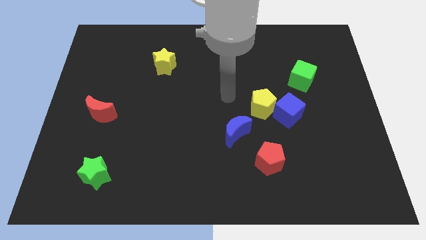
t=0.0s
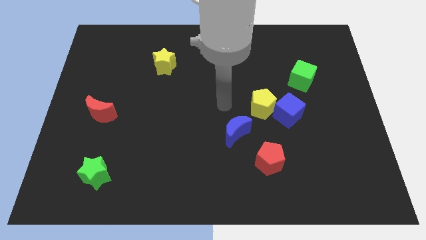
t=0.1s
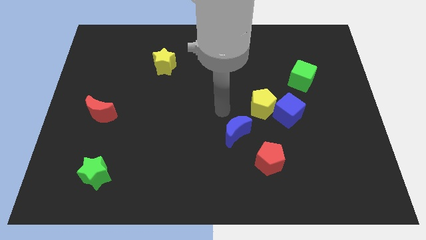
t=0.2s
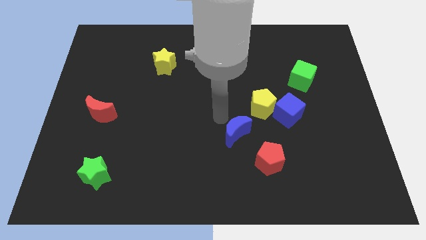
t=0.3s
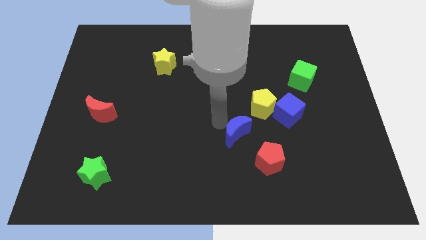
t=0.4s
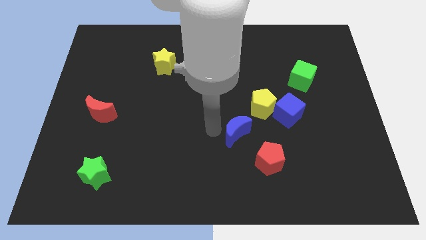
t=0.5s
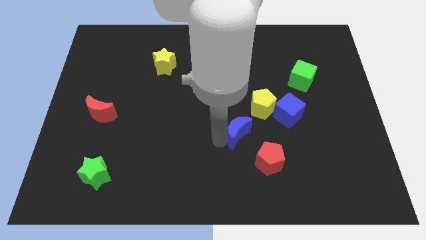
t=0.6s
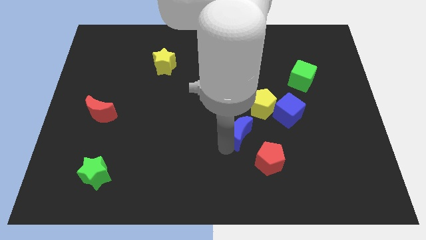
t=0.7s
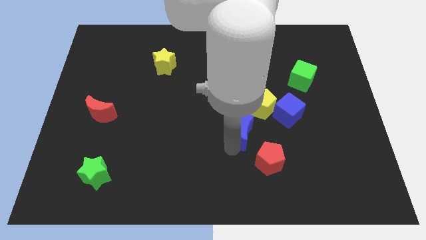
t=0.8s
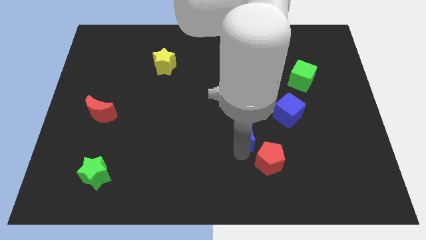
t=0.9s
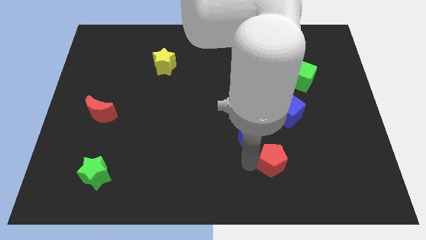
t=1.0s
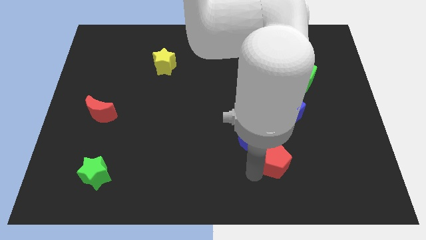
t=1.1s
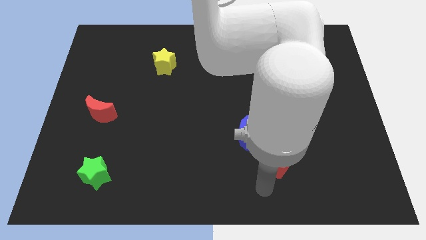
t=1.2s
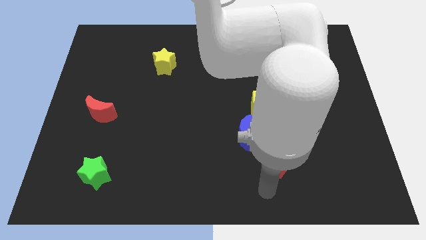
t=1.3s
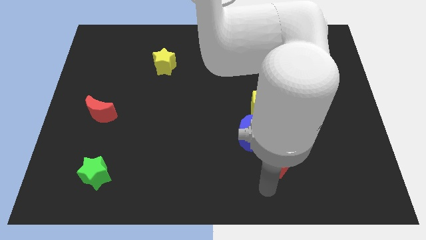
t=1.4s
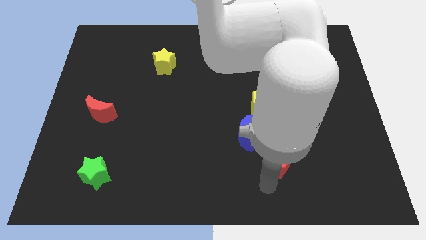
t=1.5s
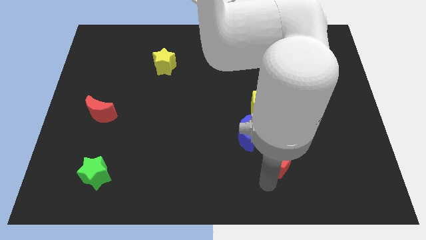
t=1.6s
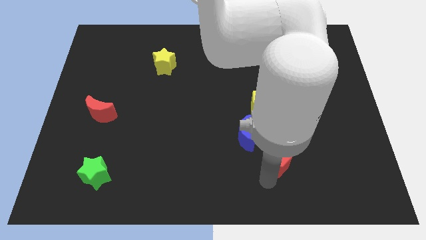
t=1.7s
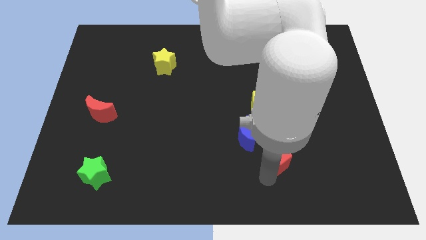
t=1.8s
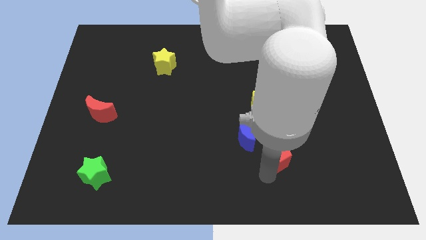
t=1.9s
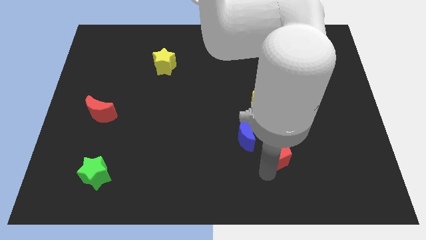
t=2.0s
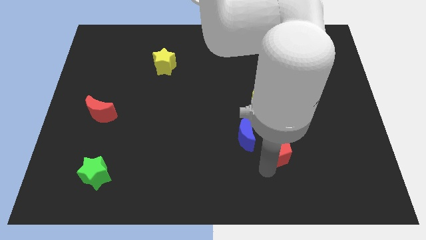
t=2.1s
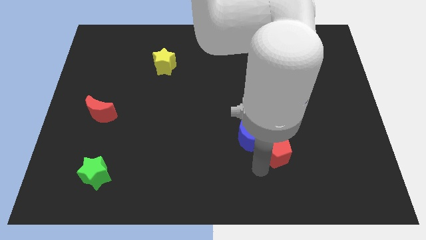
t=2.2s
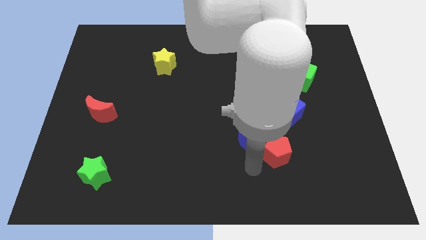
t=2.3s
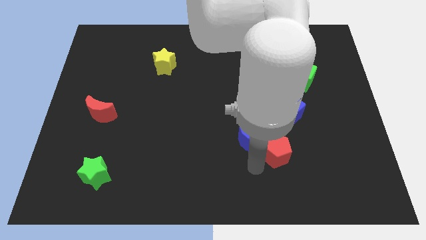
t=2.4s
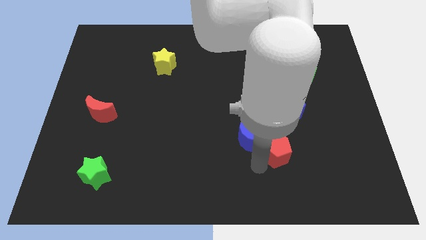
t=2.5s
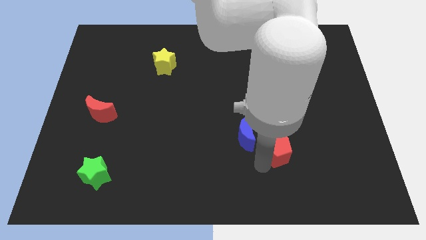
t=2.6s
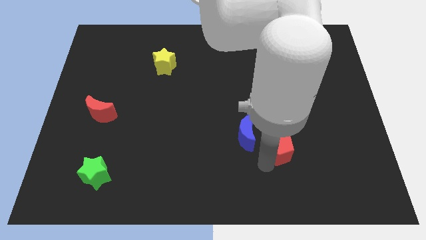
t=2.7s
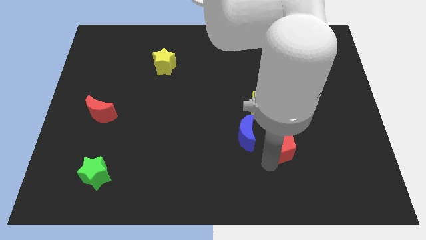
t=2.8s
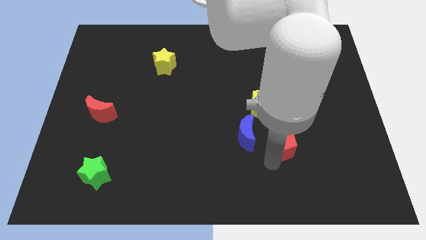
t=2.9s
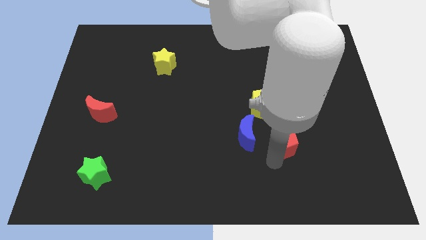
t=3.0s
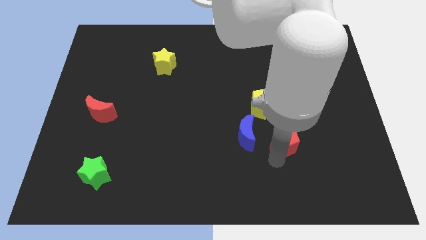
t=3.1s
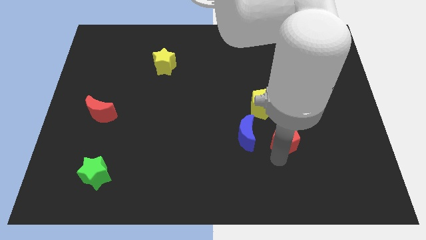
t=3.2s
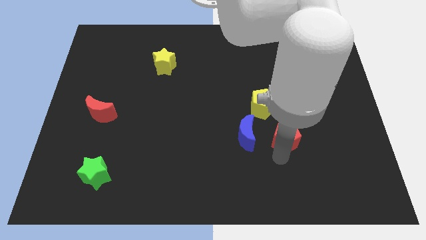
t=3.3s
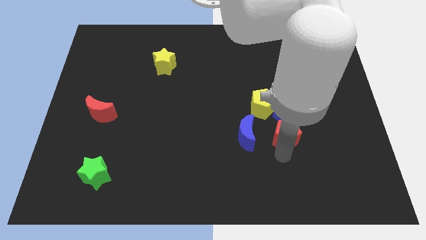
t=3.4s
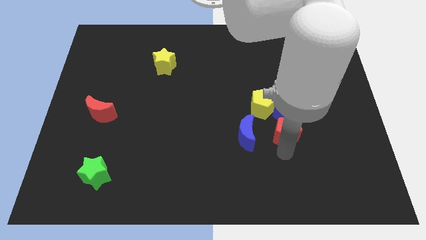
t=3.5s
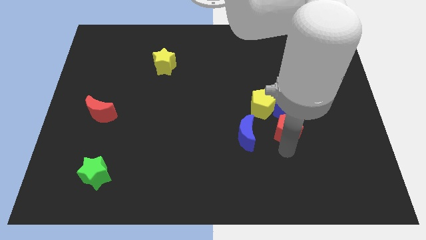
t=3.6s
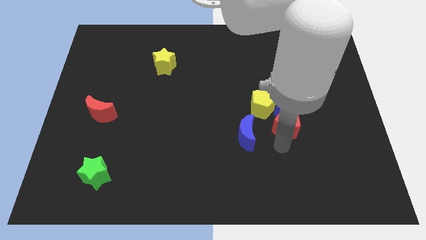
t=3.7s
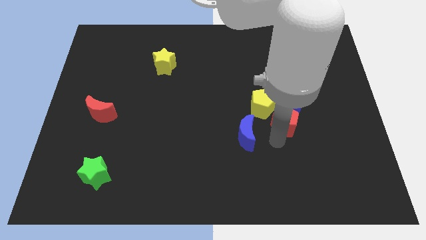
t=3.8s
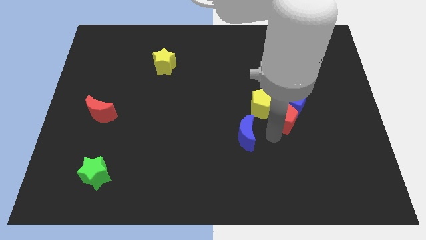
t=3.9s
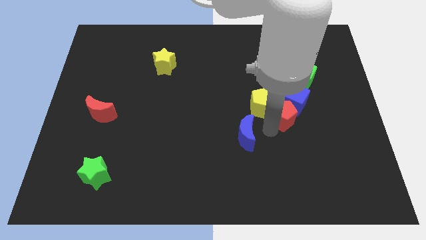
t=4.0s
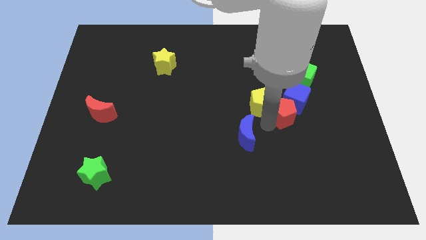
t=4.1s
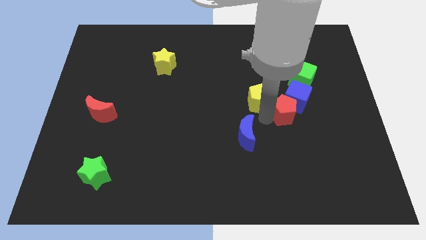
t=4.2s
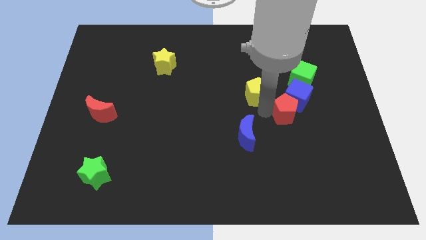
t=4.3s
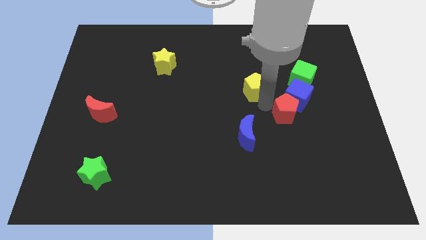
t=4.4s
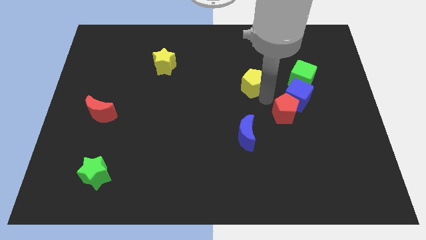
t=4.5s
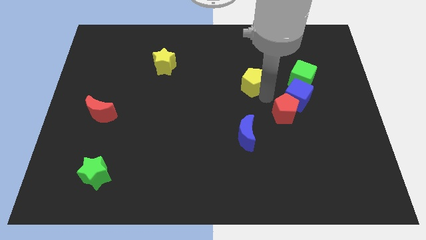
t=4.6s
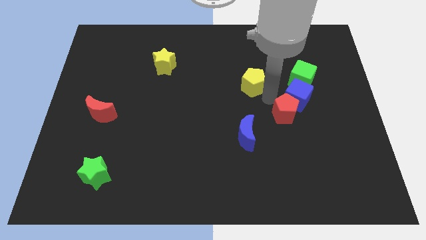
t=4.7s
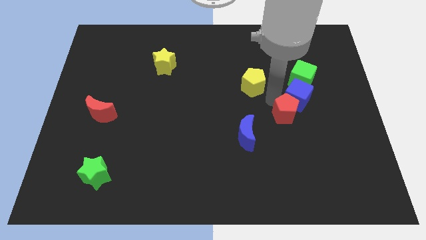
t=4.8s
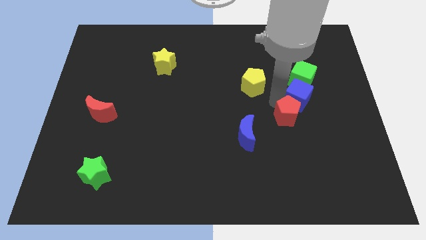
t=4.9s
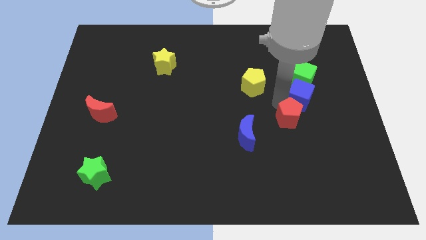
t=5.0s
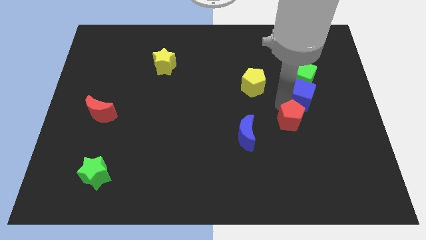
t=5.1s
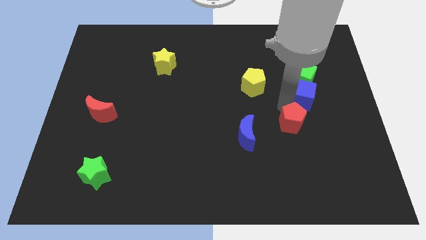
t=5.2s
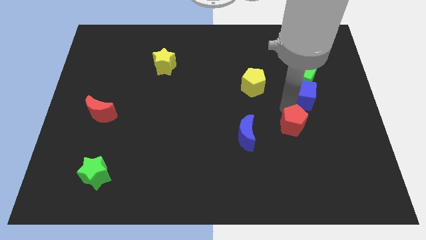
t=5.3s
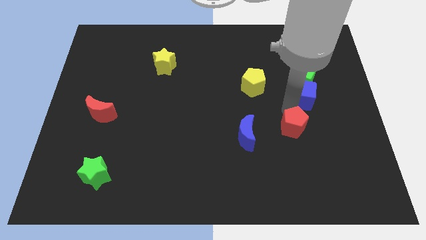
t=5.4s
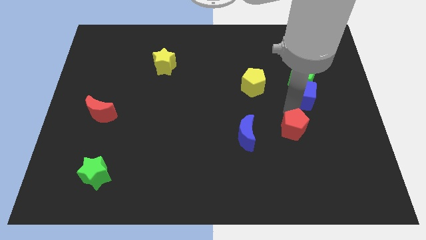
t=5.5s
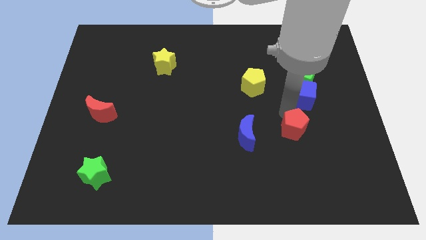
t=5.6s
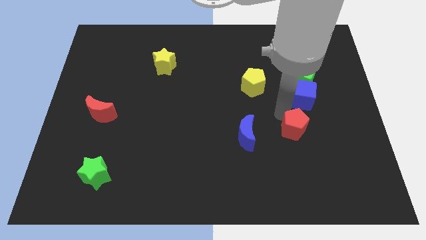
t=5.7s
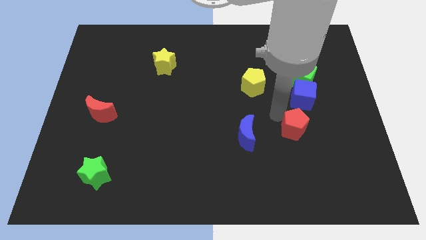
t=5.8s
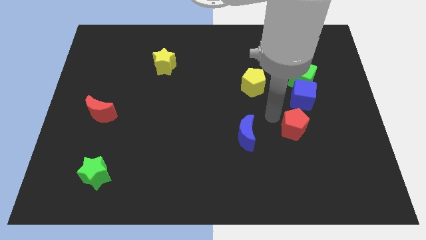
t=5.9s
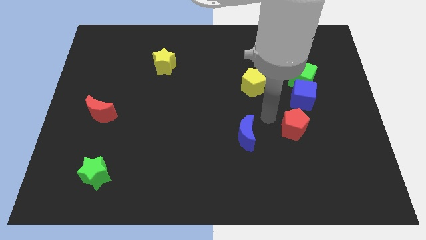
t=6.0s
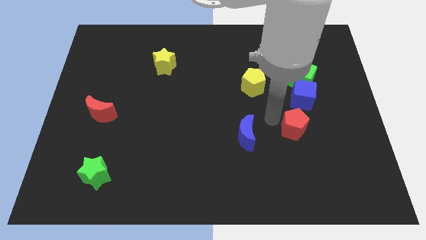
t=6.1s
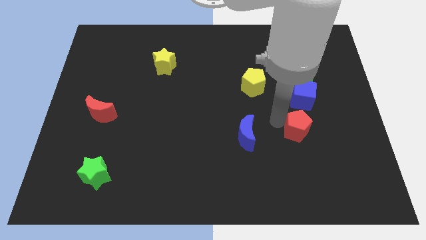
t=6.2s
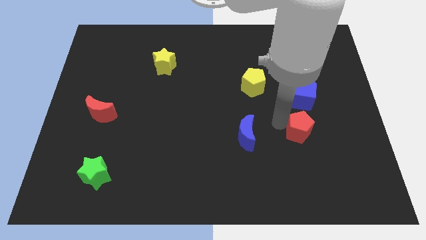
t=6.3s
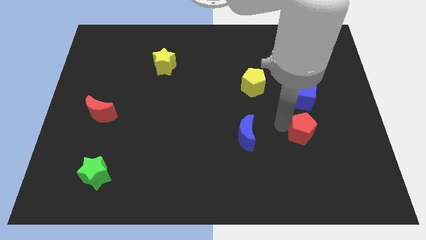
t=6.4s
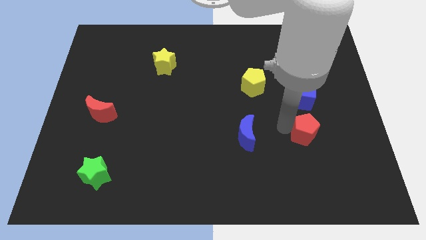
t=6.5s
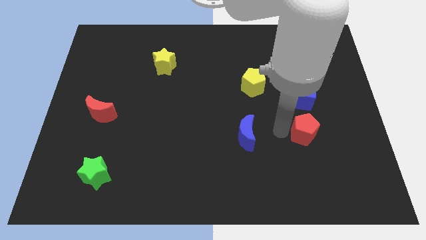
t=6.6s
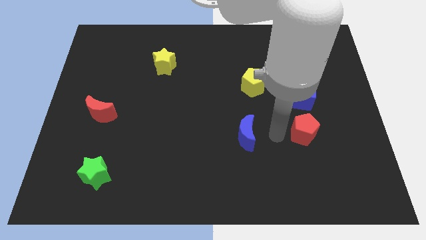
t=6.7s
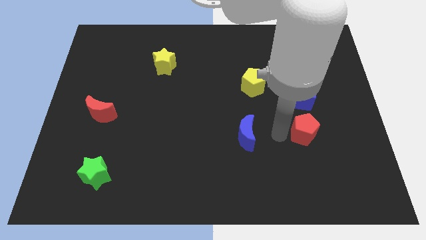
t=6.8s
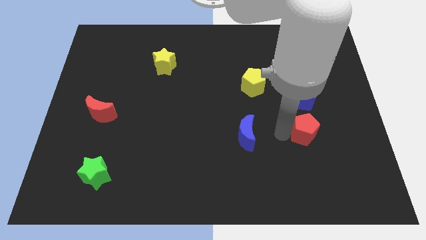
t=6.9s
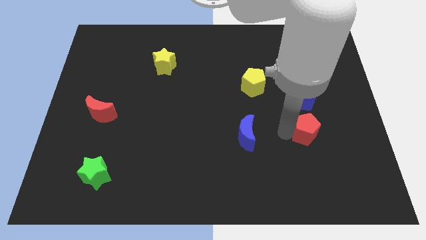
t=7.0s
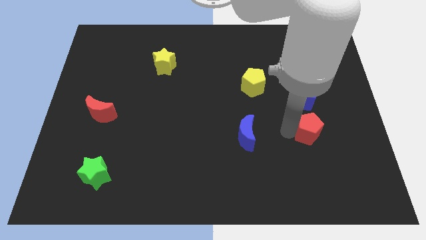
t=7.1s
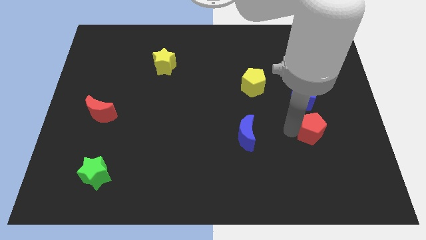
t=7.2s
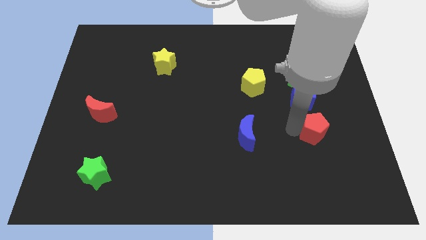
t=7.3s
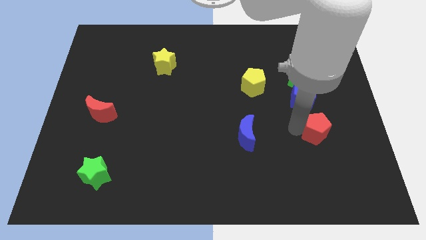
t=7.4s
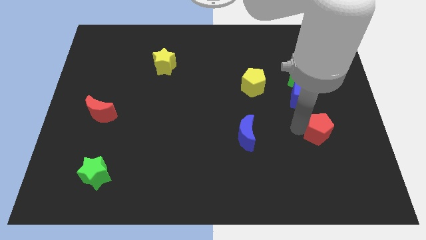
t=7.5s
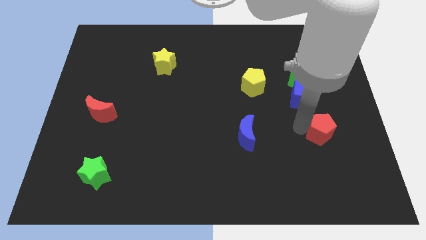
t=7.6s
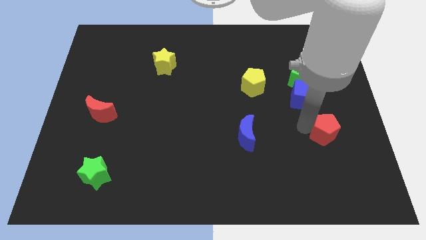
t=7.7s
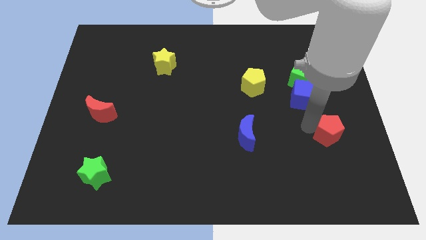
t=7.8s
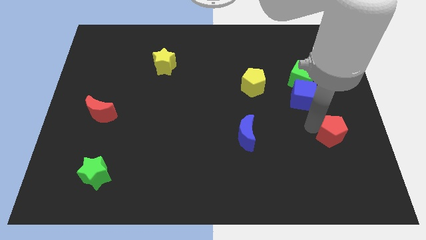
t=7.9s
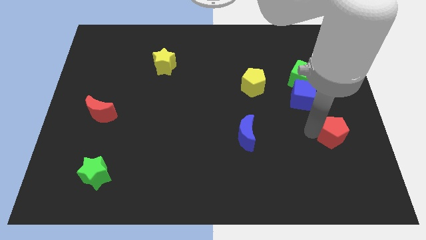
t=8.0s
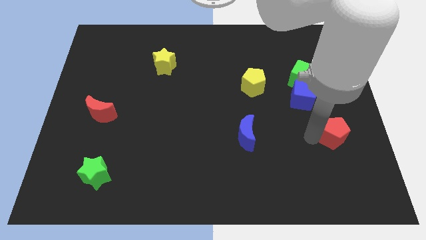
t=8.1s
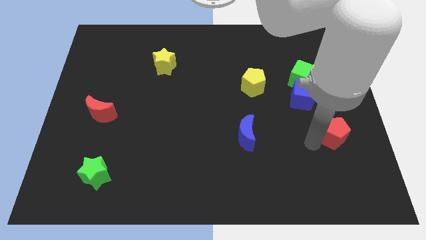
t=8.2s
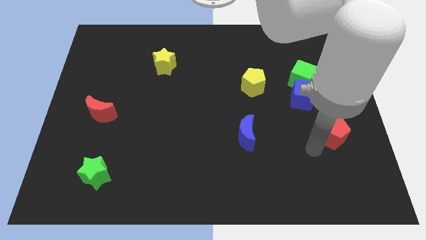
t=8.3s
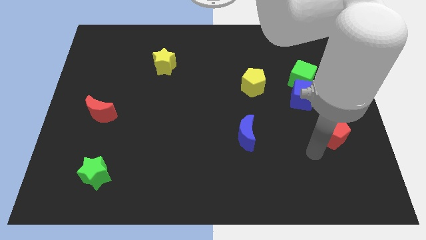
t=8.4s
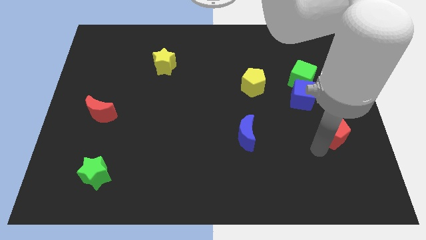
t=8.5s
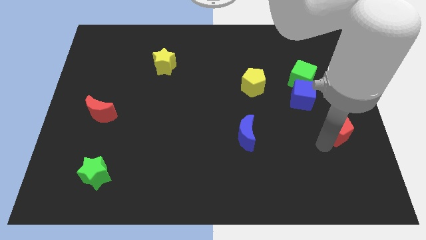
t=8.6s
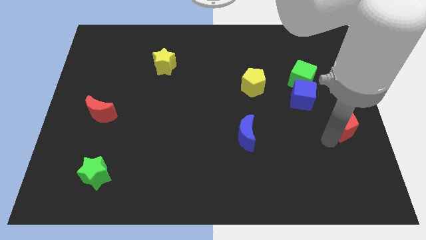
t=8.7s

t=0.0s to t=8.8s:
push the red pentagon to the center right
